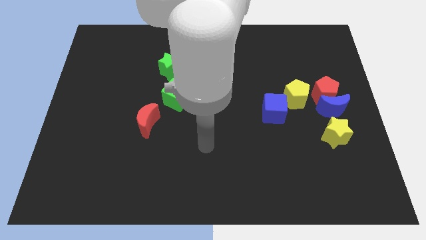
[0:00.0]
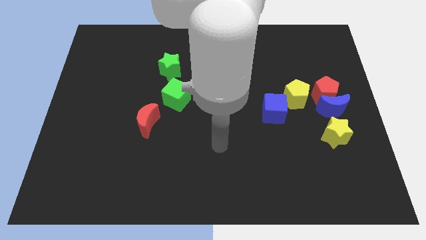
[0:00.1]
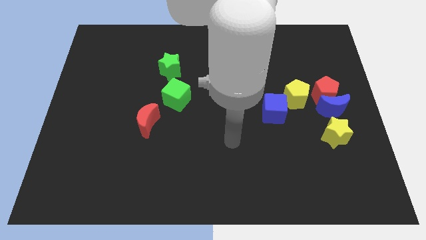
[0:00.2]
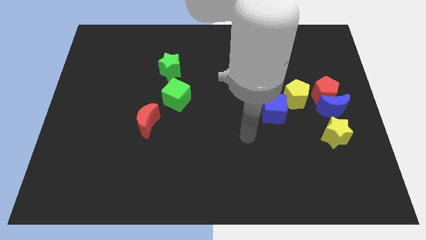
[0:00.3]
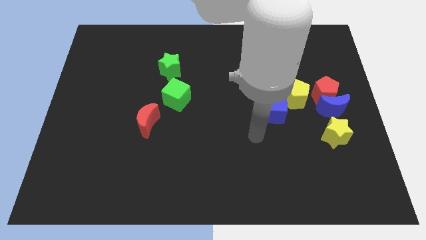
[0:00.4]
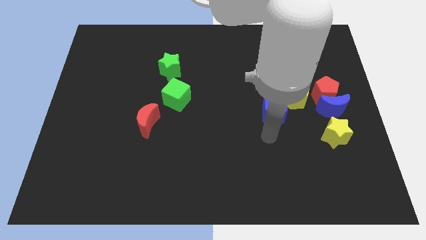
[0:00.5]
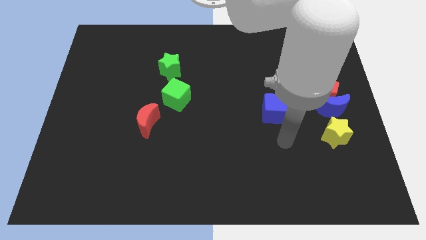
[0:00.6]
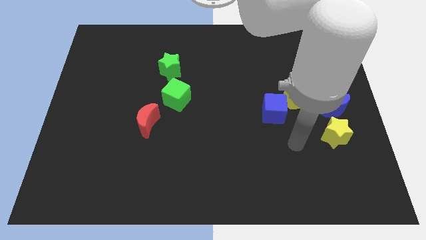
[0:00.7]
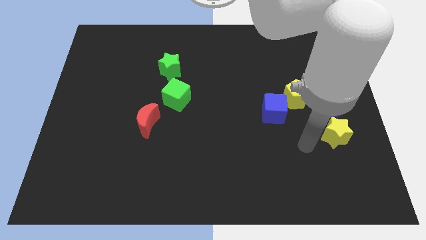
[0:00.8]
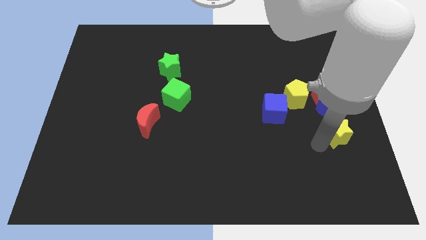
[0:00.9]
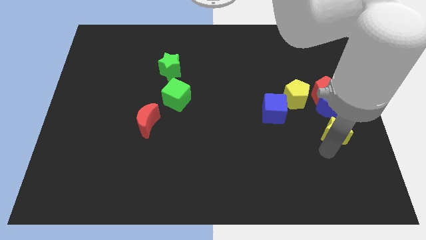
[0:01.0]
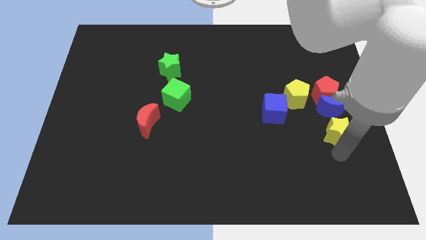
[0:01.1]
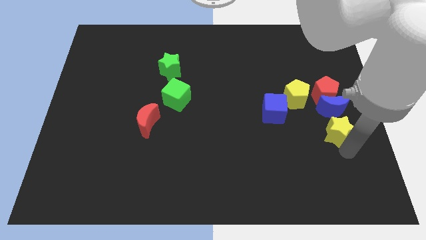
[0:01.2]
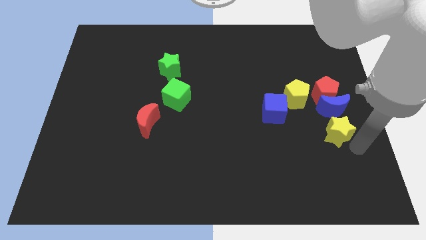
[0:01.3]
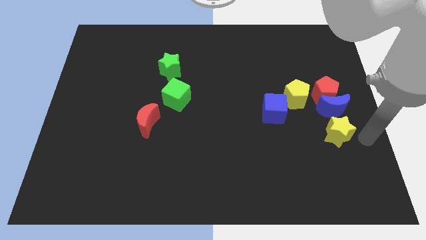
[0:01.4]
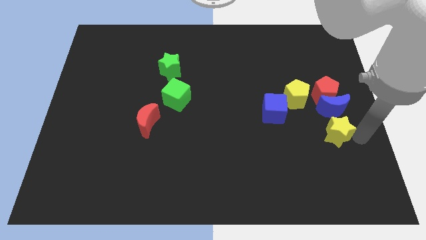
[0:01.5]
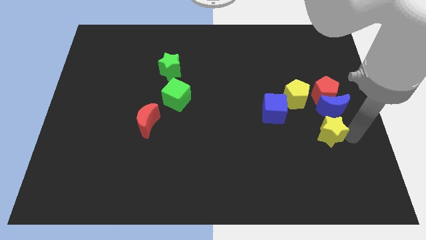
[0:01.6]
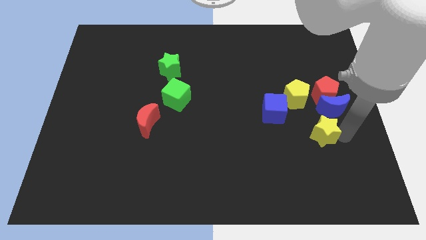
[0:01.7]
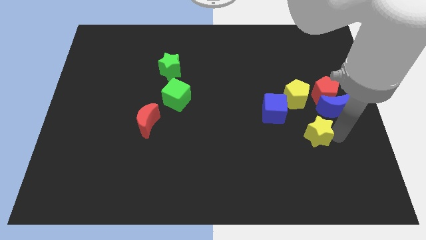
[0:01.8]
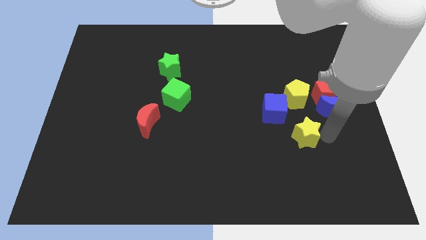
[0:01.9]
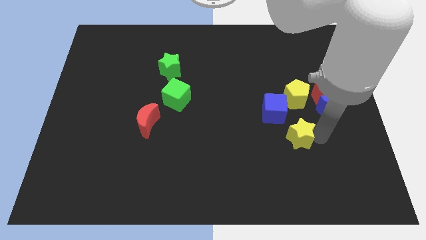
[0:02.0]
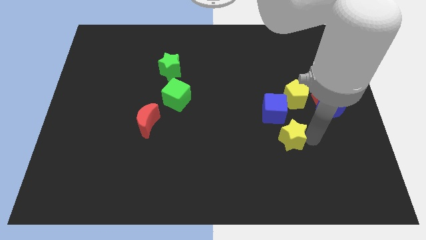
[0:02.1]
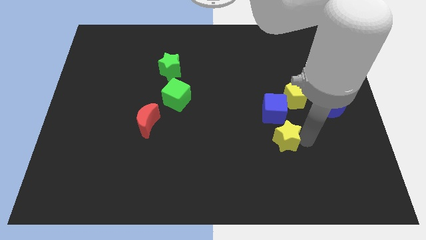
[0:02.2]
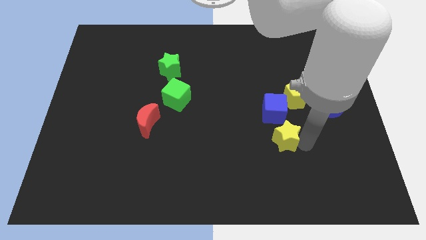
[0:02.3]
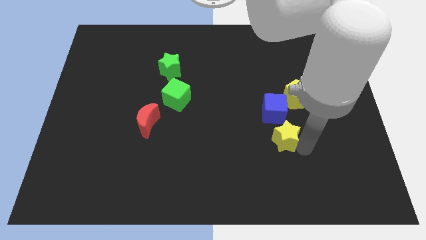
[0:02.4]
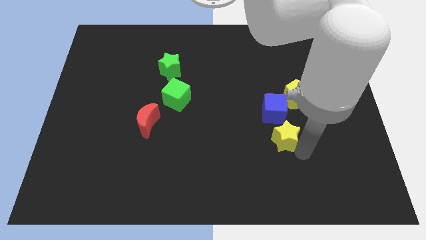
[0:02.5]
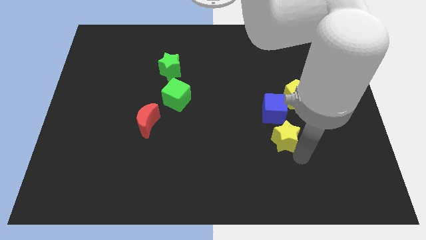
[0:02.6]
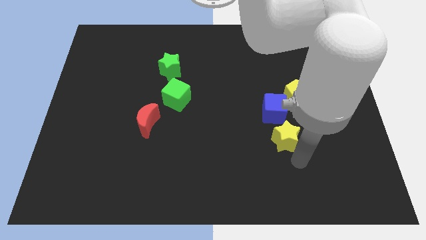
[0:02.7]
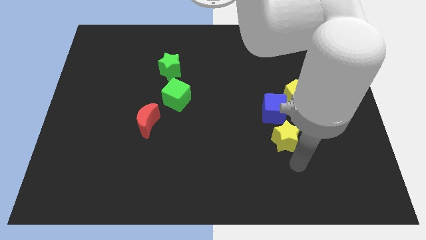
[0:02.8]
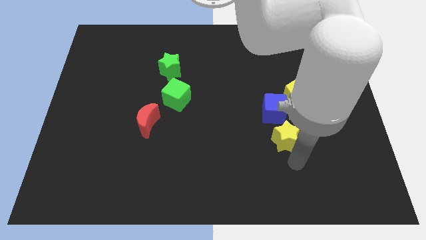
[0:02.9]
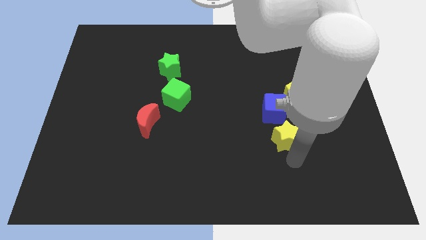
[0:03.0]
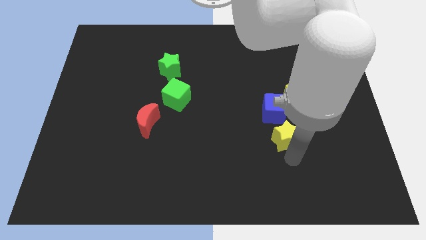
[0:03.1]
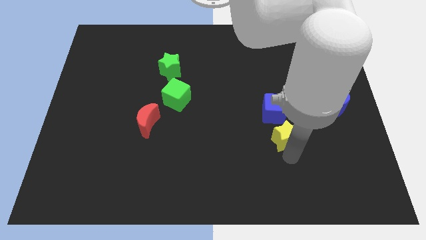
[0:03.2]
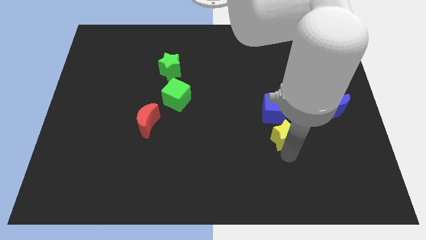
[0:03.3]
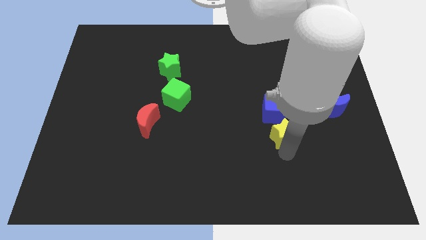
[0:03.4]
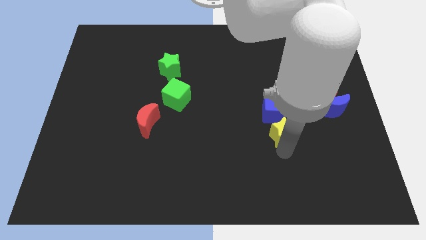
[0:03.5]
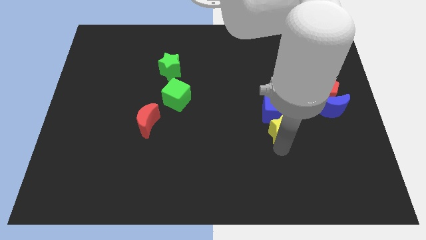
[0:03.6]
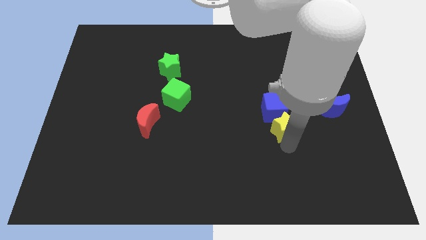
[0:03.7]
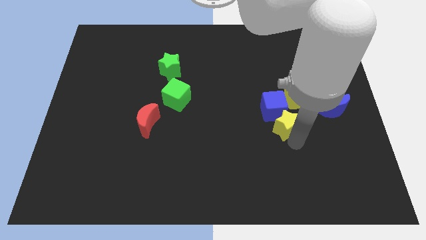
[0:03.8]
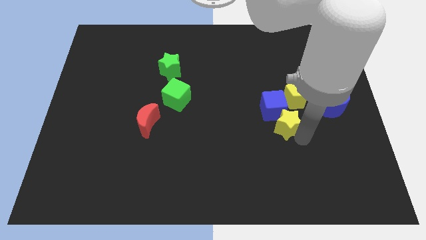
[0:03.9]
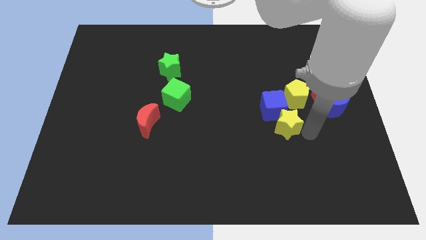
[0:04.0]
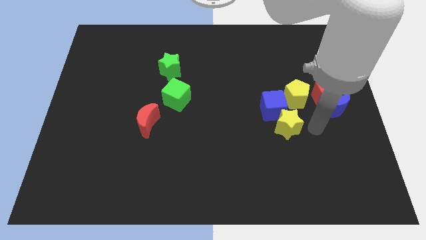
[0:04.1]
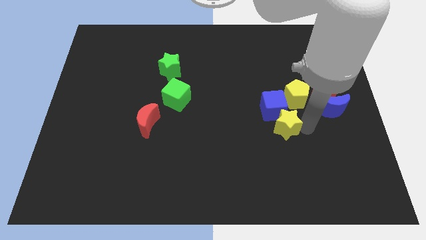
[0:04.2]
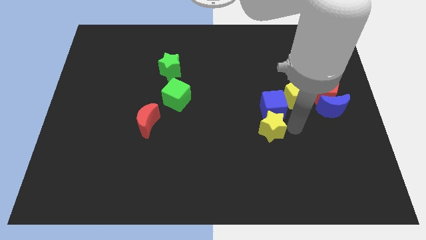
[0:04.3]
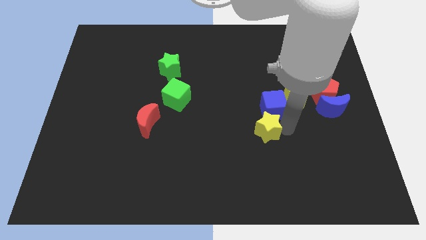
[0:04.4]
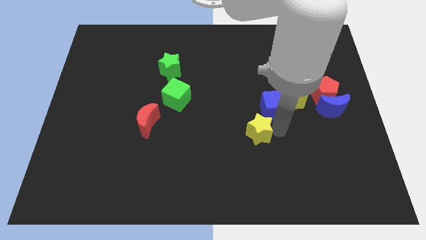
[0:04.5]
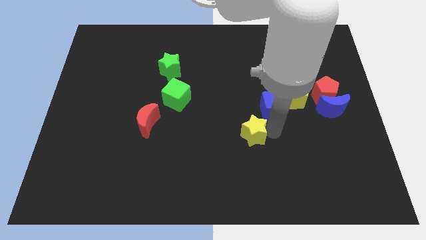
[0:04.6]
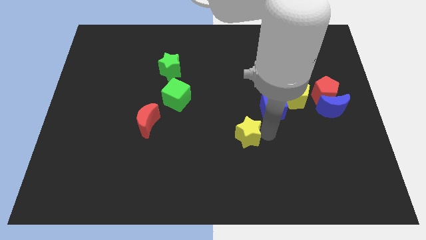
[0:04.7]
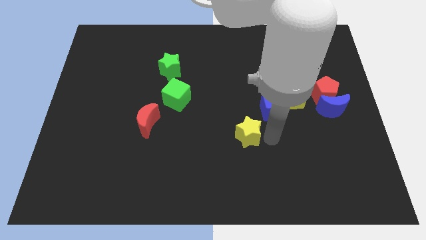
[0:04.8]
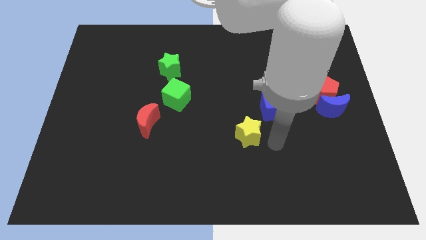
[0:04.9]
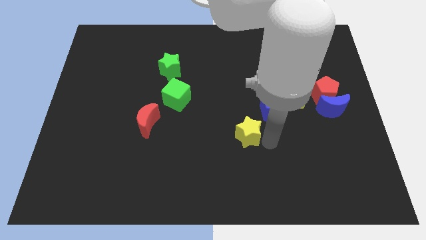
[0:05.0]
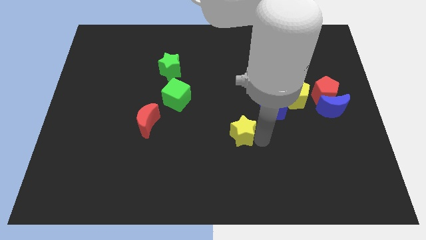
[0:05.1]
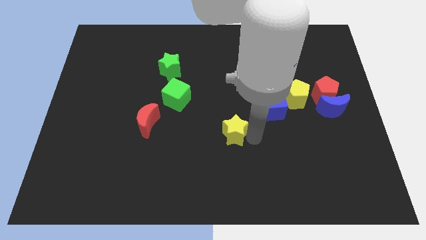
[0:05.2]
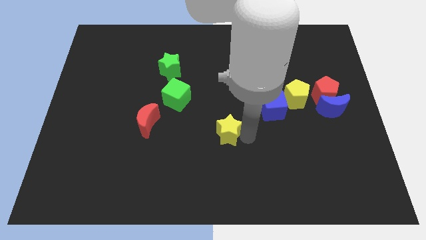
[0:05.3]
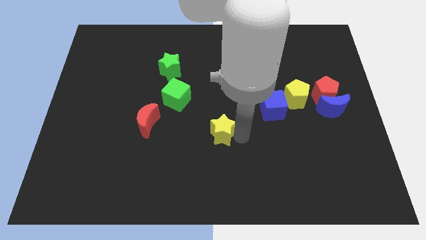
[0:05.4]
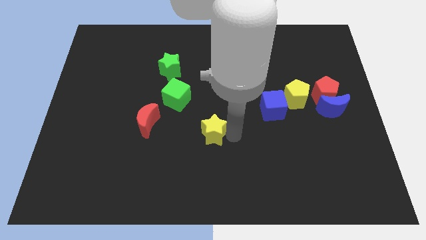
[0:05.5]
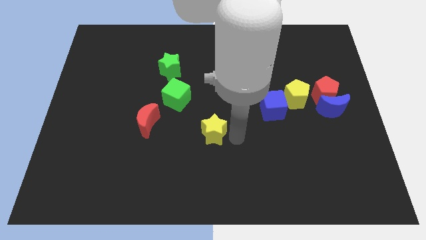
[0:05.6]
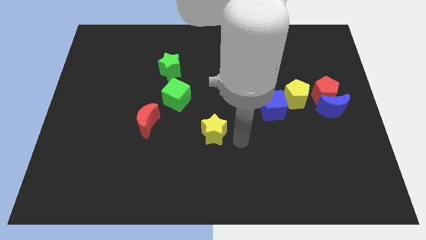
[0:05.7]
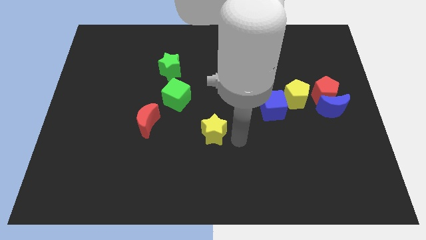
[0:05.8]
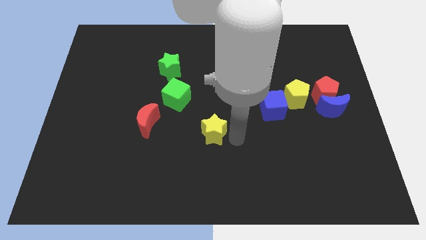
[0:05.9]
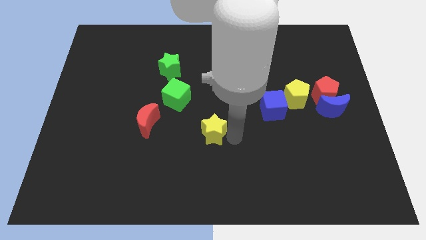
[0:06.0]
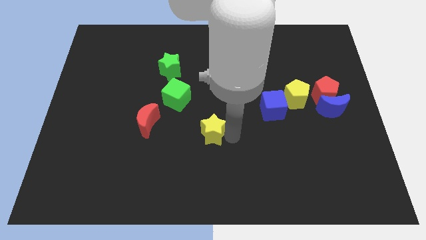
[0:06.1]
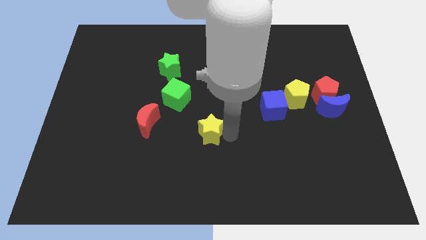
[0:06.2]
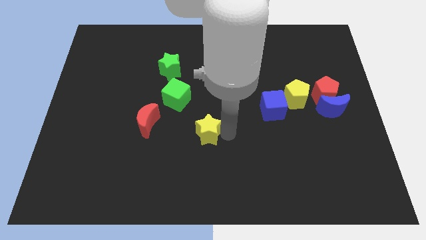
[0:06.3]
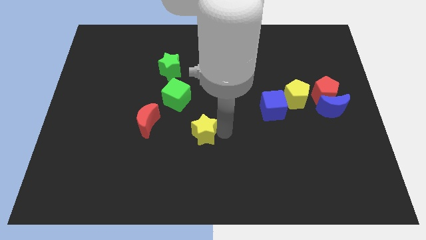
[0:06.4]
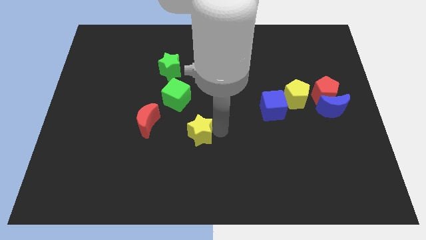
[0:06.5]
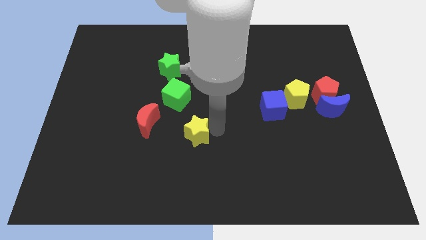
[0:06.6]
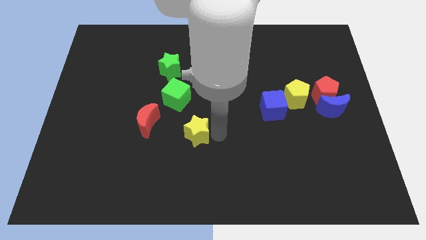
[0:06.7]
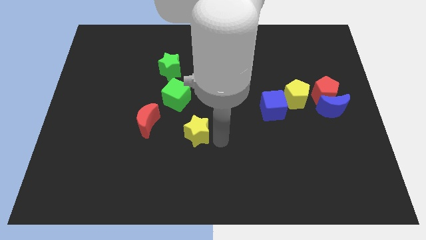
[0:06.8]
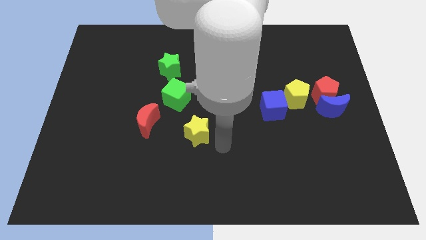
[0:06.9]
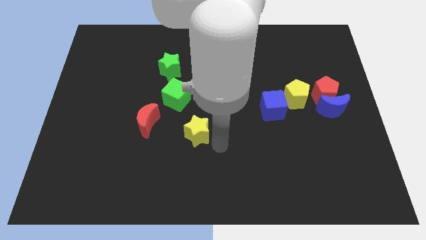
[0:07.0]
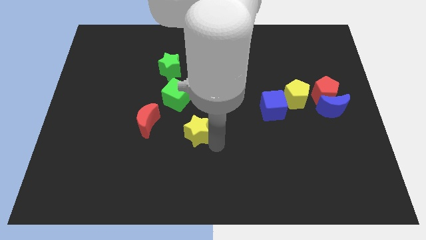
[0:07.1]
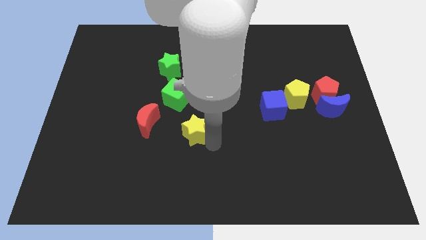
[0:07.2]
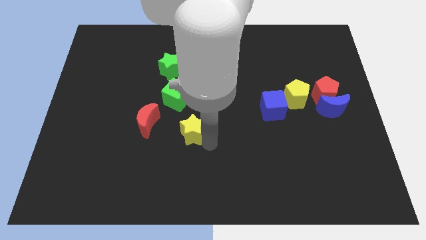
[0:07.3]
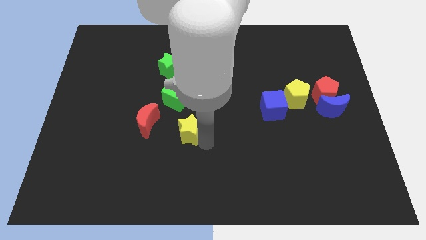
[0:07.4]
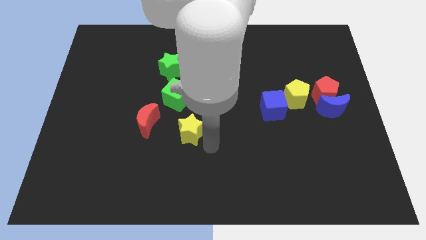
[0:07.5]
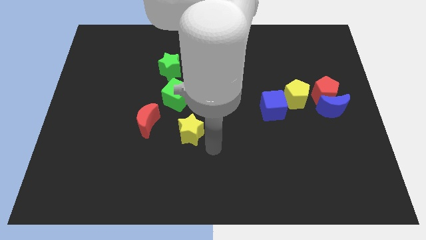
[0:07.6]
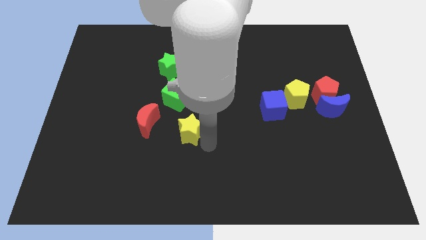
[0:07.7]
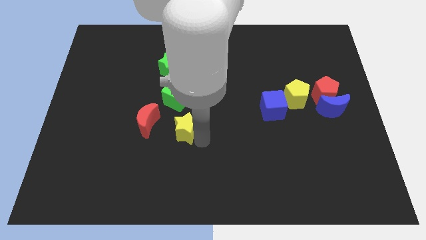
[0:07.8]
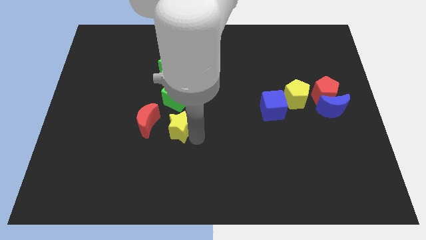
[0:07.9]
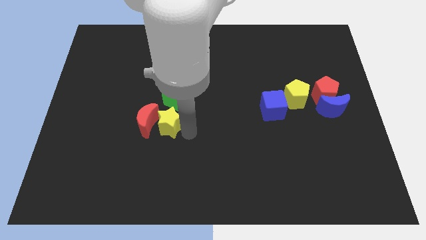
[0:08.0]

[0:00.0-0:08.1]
move the yellow star towards the red moon
